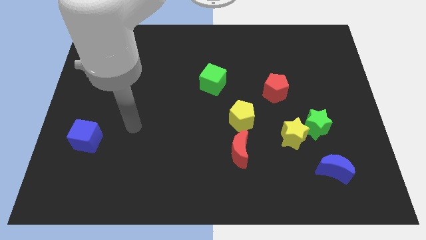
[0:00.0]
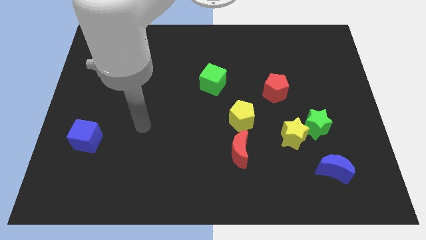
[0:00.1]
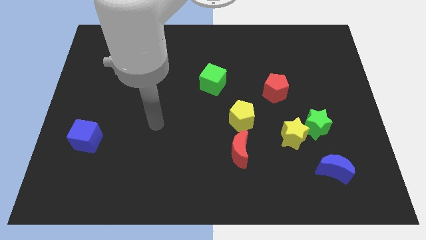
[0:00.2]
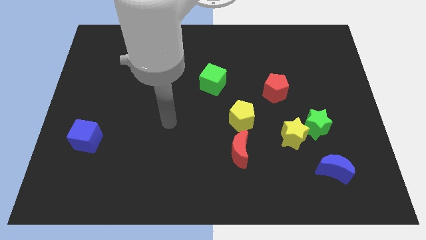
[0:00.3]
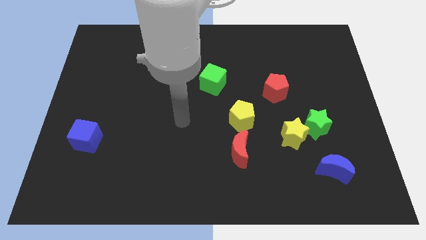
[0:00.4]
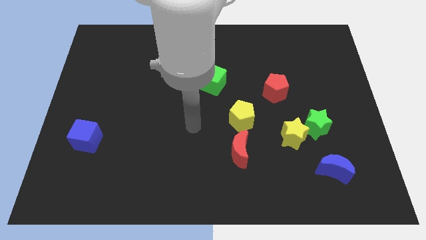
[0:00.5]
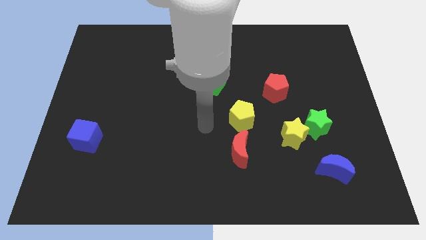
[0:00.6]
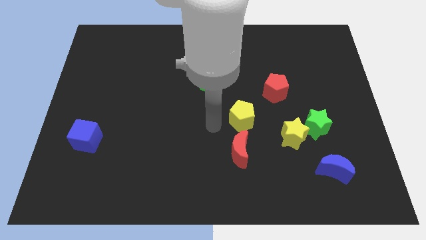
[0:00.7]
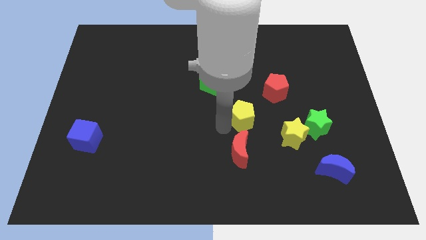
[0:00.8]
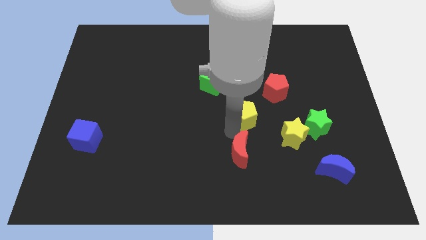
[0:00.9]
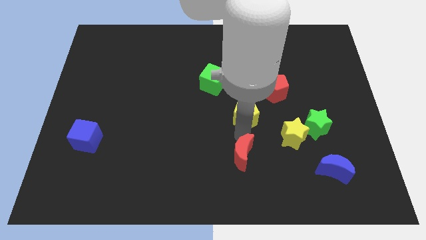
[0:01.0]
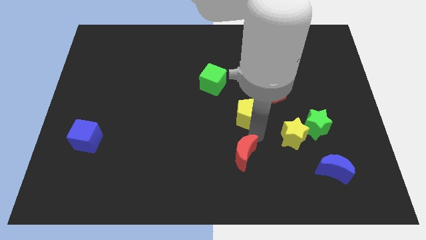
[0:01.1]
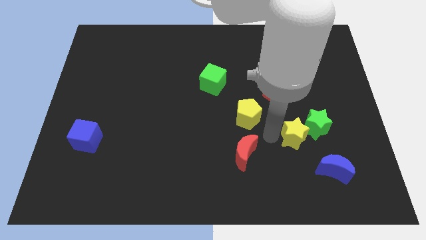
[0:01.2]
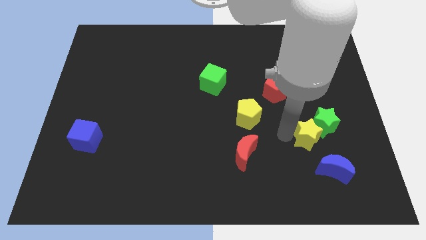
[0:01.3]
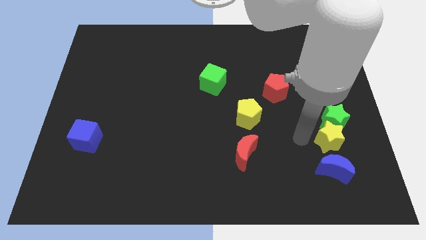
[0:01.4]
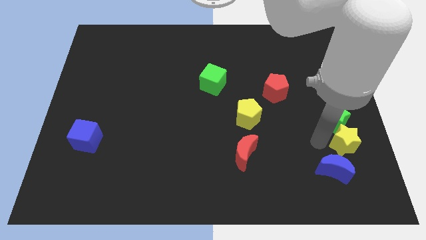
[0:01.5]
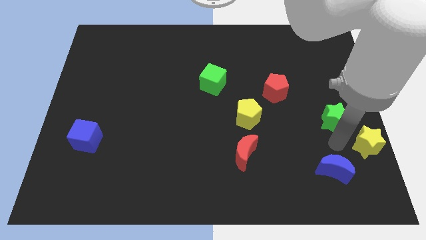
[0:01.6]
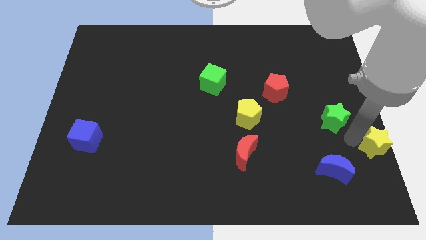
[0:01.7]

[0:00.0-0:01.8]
move the green star away from the yellow star

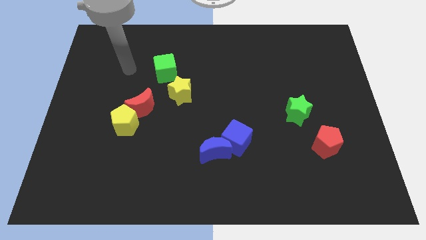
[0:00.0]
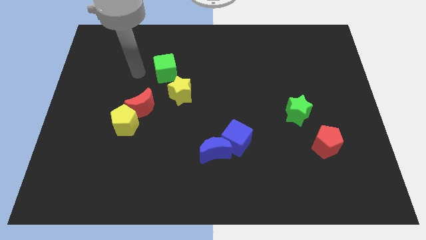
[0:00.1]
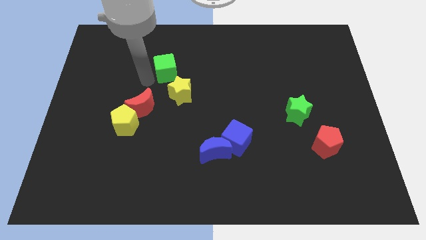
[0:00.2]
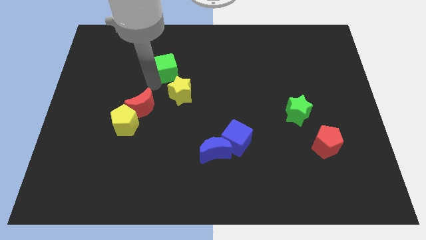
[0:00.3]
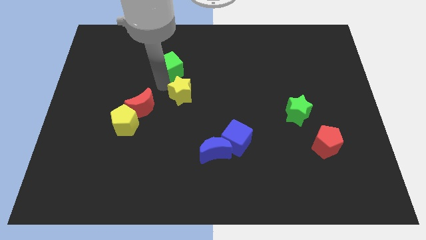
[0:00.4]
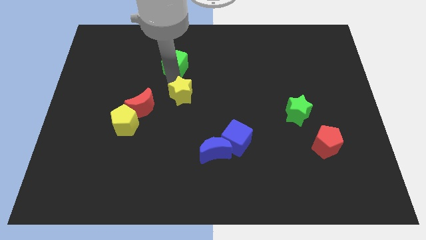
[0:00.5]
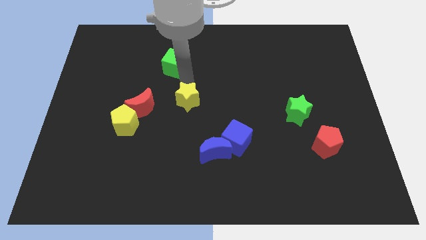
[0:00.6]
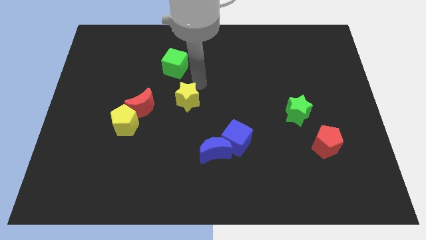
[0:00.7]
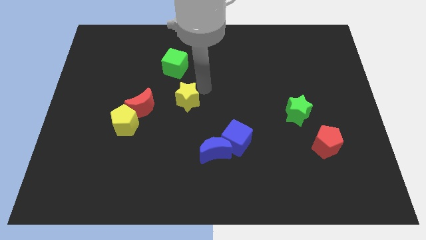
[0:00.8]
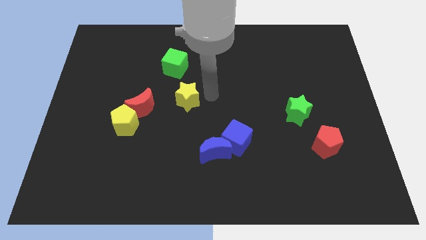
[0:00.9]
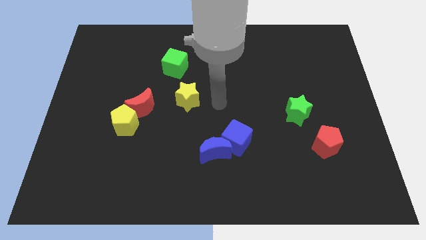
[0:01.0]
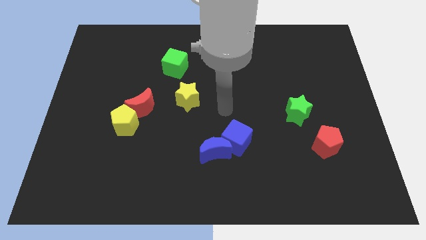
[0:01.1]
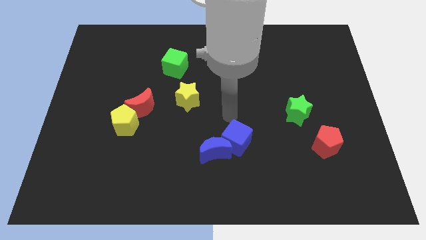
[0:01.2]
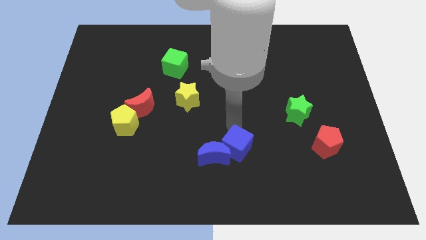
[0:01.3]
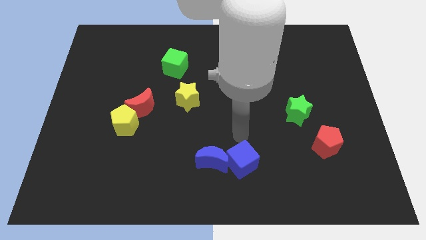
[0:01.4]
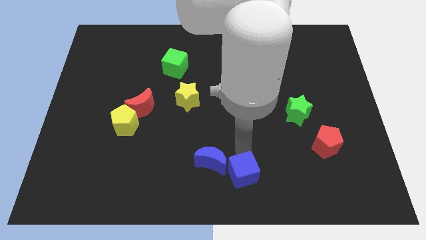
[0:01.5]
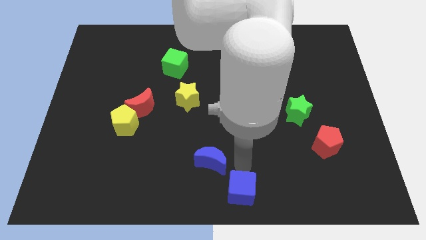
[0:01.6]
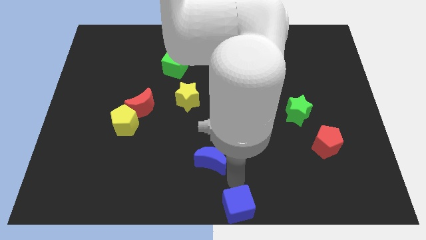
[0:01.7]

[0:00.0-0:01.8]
separate the blue moon from the blue cube

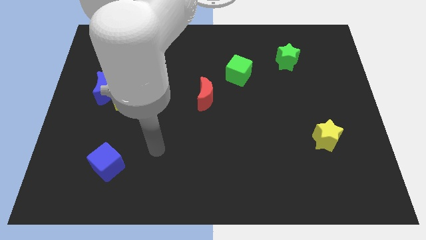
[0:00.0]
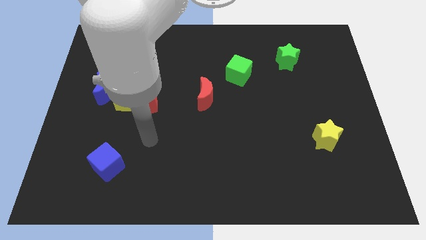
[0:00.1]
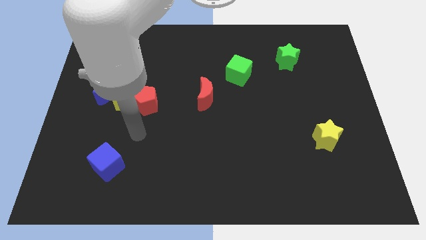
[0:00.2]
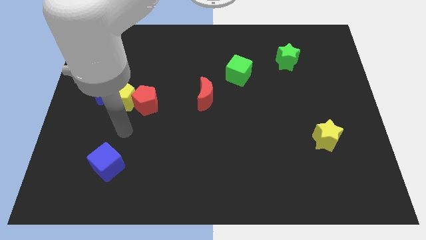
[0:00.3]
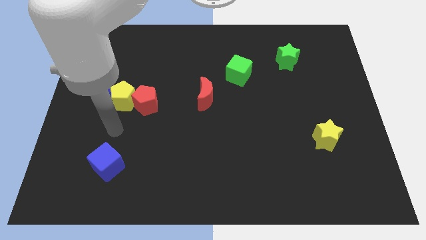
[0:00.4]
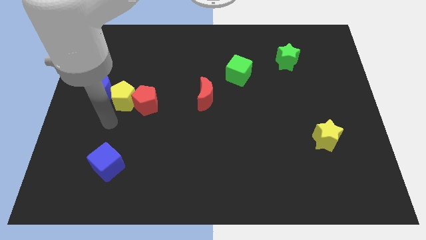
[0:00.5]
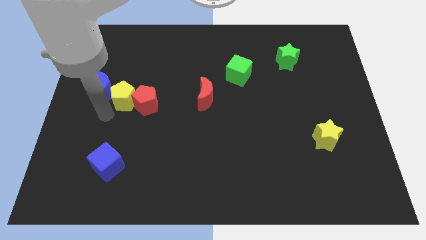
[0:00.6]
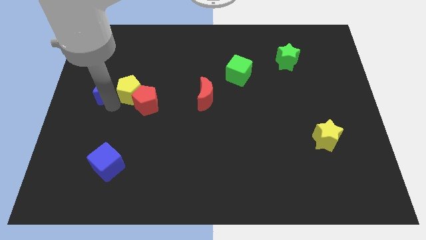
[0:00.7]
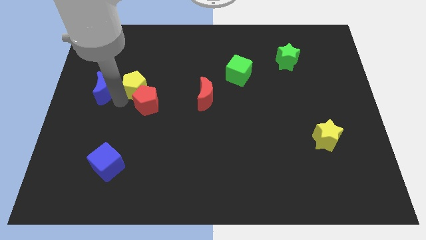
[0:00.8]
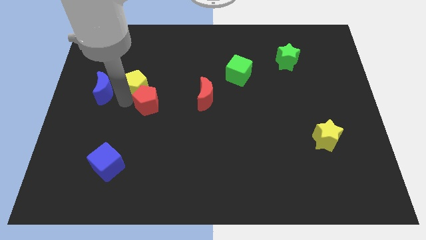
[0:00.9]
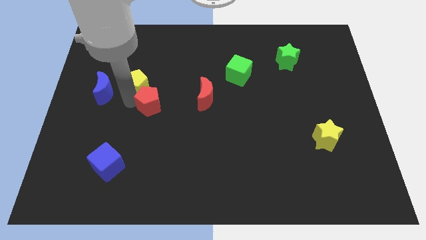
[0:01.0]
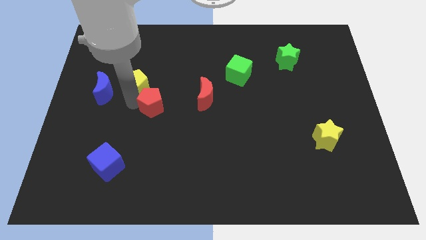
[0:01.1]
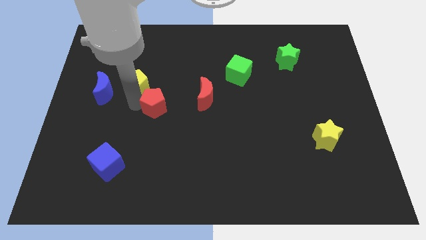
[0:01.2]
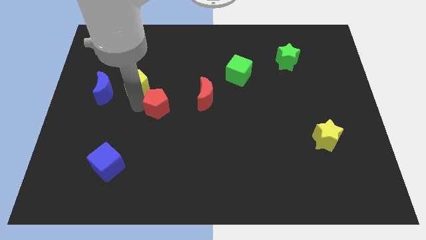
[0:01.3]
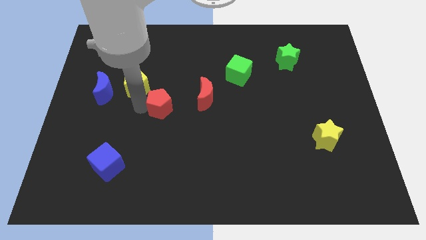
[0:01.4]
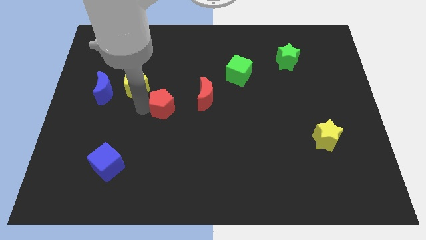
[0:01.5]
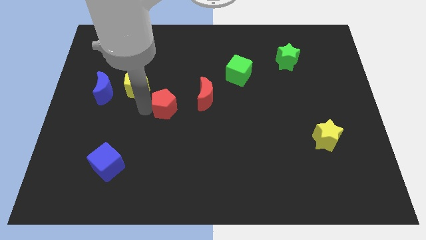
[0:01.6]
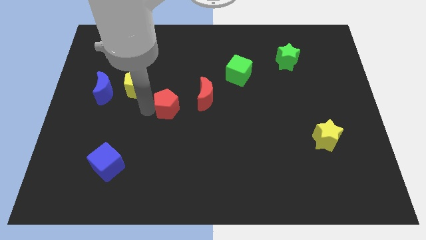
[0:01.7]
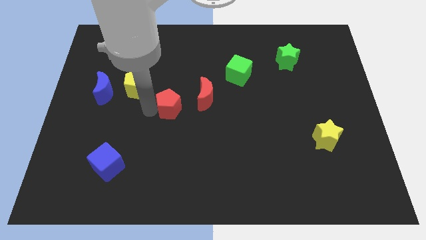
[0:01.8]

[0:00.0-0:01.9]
move the red pentagon away from the yellow pentagon

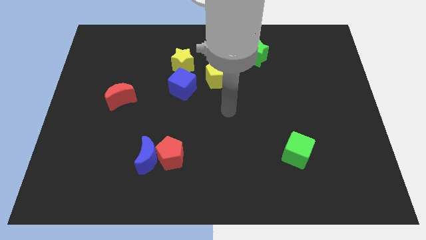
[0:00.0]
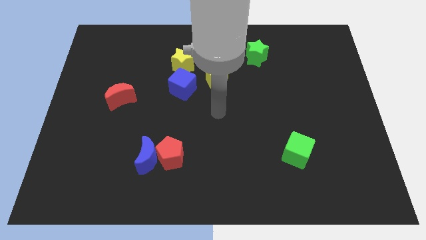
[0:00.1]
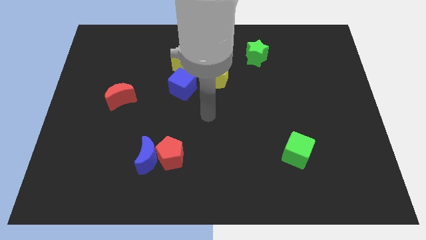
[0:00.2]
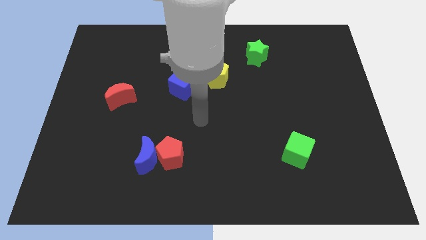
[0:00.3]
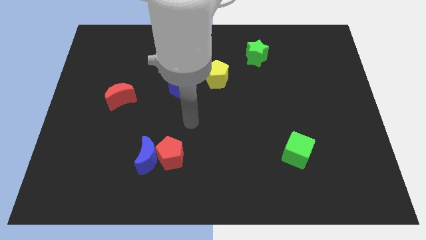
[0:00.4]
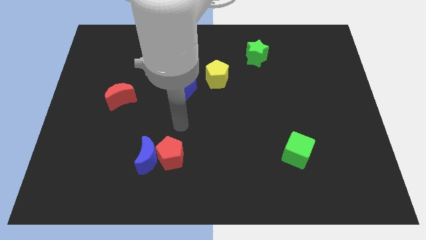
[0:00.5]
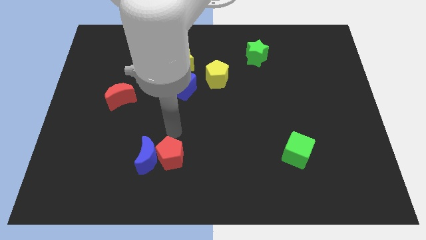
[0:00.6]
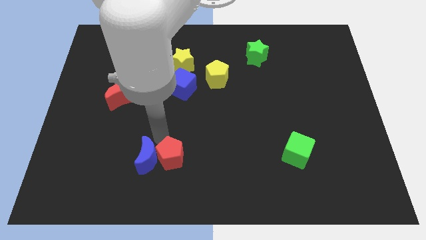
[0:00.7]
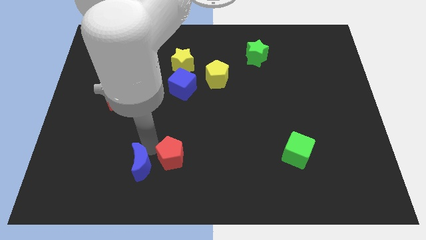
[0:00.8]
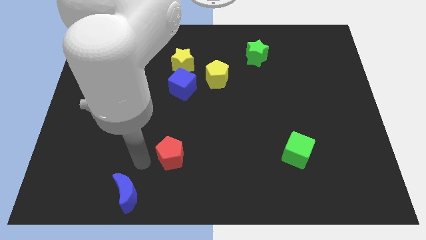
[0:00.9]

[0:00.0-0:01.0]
move the red pentagon away from the blue moon

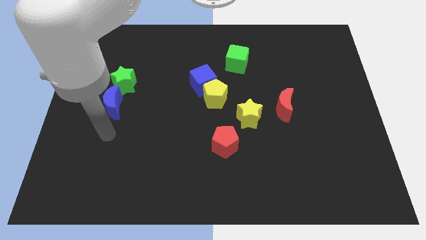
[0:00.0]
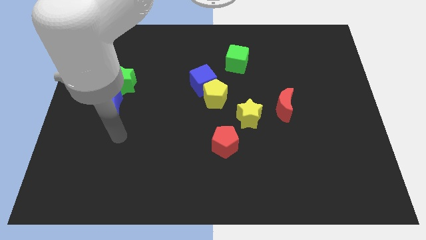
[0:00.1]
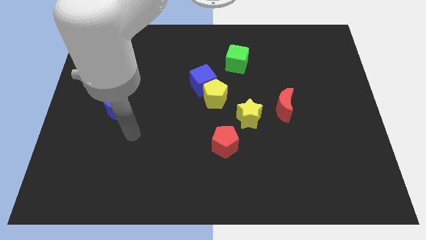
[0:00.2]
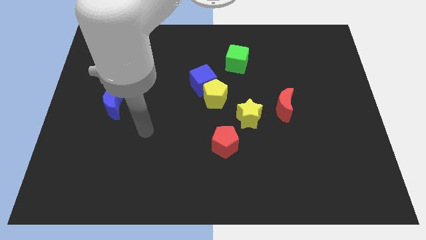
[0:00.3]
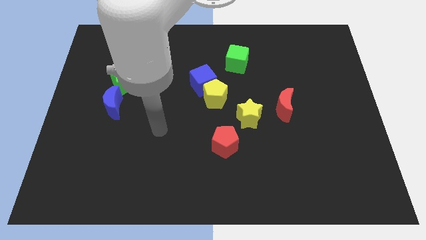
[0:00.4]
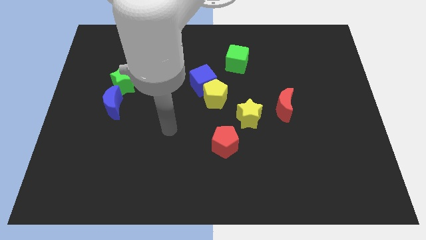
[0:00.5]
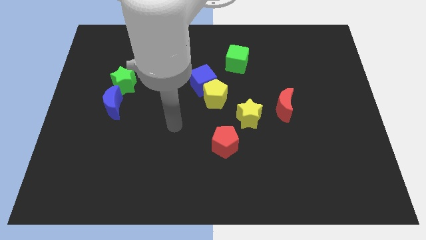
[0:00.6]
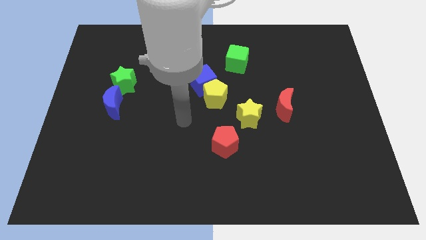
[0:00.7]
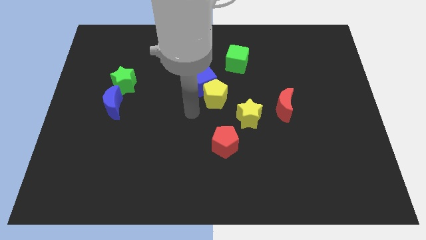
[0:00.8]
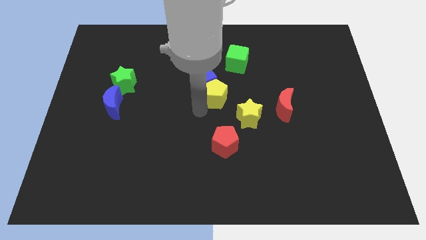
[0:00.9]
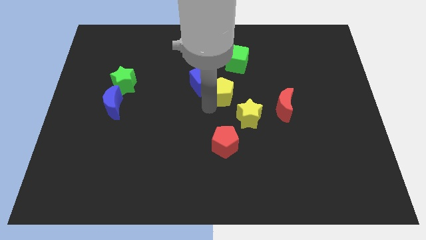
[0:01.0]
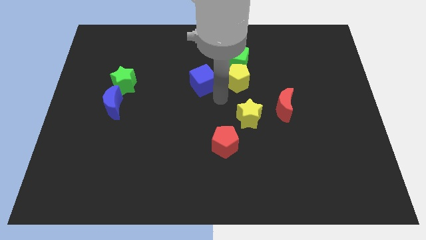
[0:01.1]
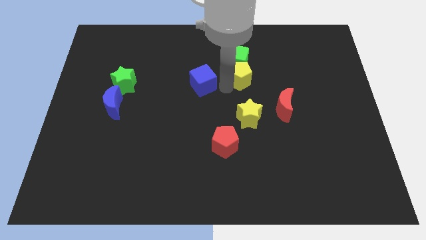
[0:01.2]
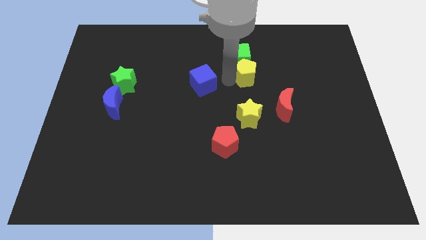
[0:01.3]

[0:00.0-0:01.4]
move the blue cube away from the yellow pentagon

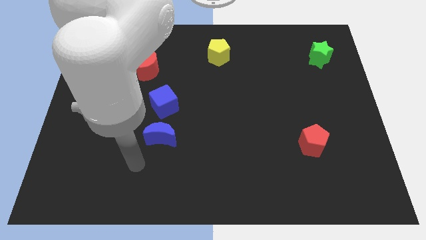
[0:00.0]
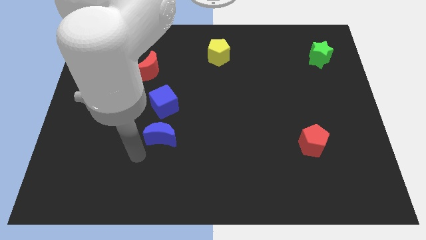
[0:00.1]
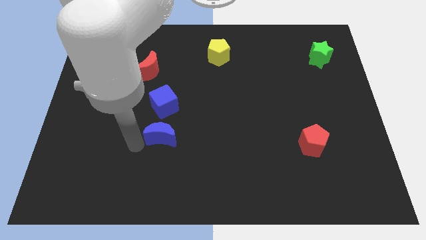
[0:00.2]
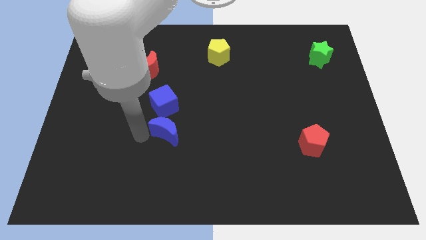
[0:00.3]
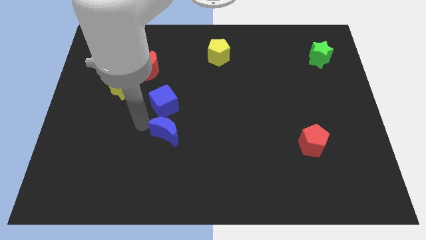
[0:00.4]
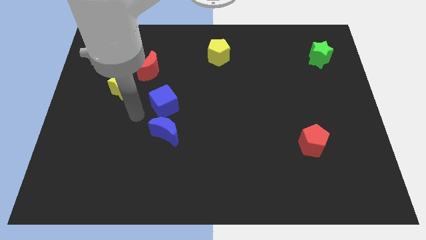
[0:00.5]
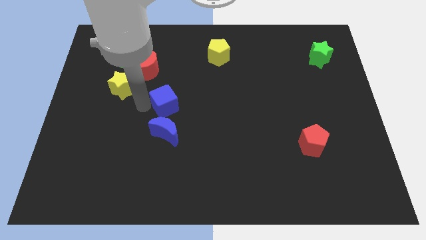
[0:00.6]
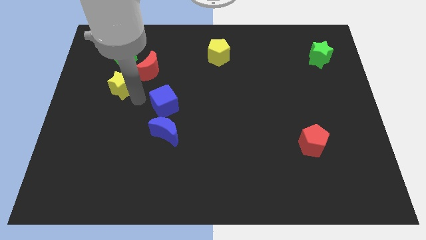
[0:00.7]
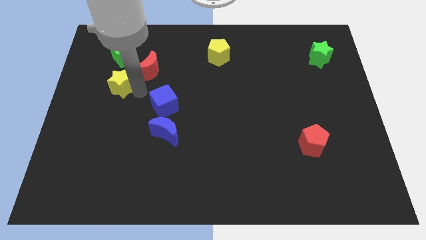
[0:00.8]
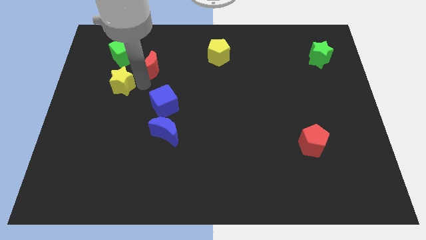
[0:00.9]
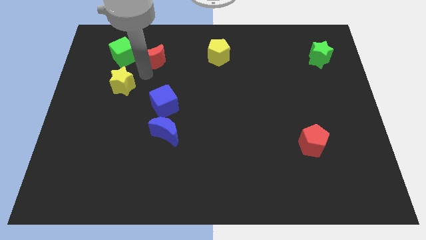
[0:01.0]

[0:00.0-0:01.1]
separate the yellow star from the red moon

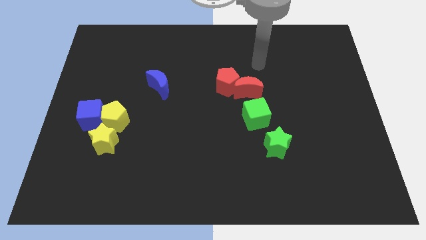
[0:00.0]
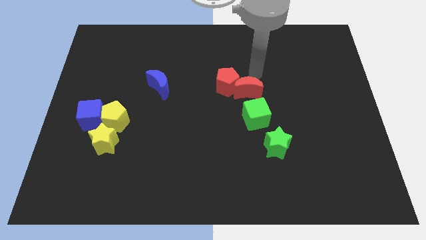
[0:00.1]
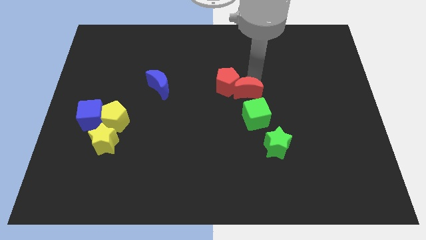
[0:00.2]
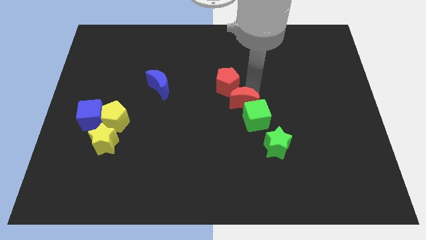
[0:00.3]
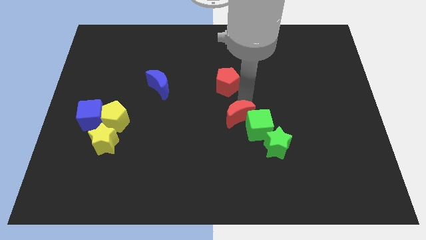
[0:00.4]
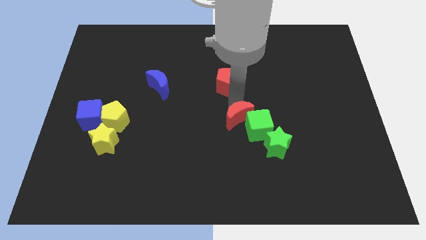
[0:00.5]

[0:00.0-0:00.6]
separate the red pentagon from the red moon
